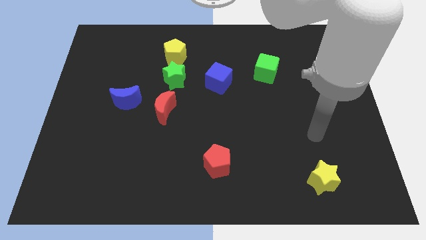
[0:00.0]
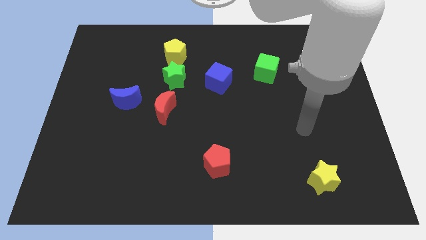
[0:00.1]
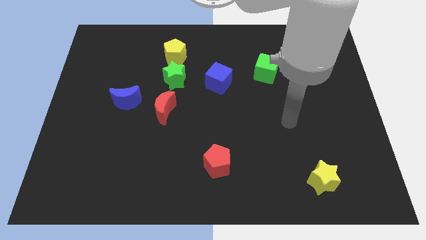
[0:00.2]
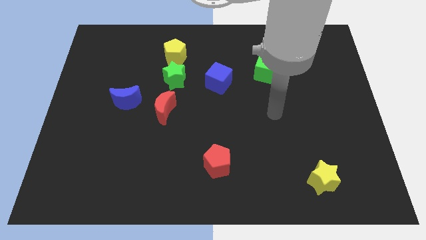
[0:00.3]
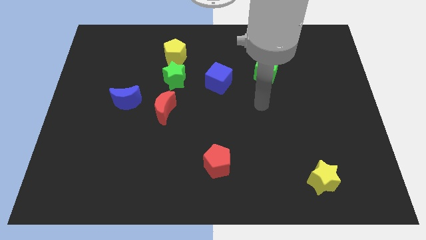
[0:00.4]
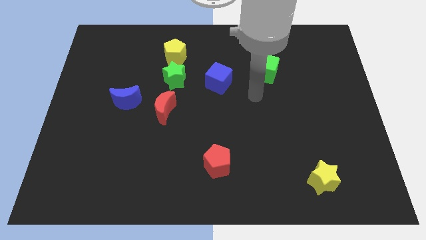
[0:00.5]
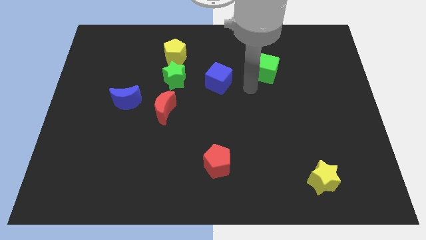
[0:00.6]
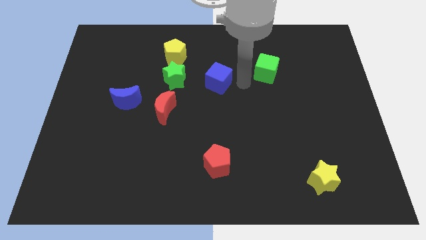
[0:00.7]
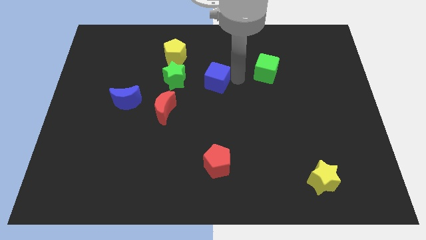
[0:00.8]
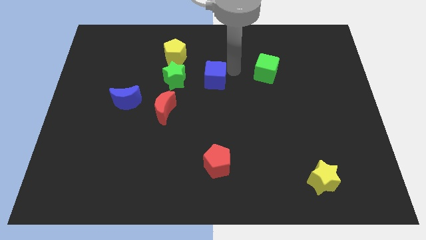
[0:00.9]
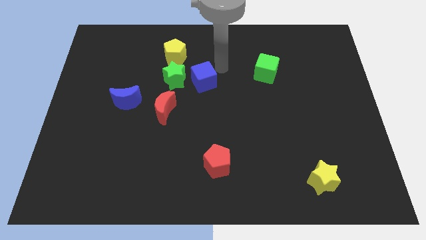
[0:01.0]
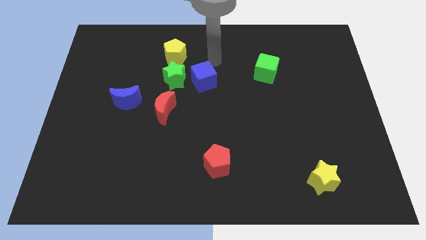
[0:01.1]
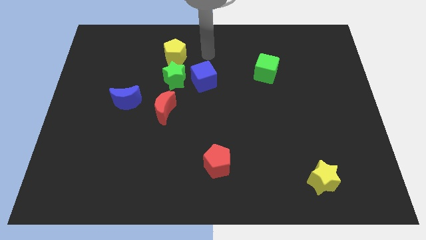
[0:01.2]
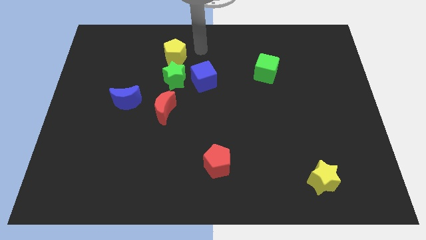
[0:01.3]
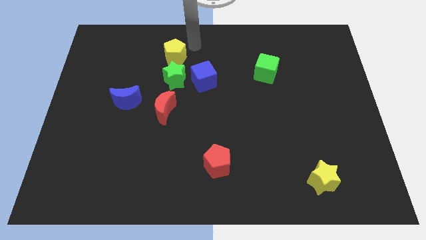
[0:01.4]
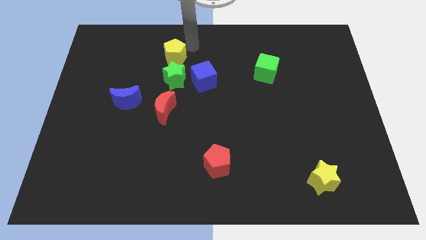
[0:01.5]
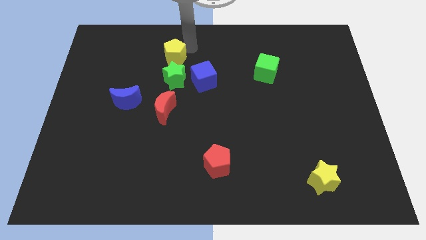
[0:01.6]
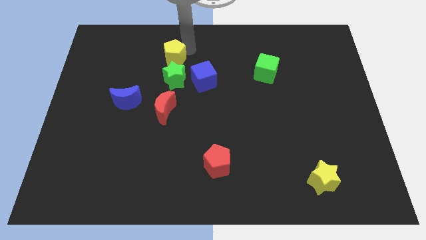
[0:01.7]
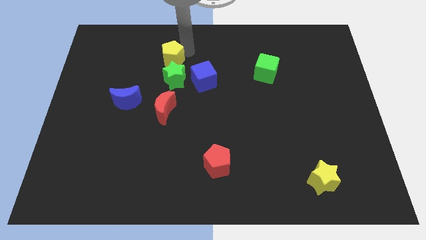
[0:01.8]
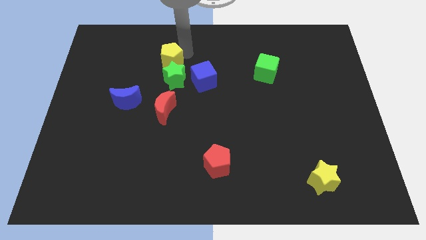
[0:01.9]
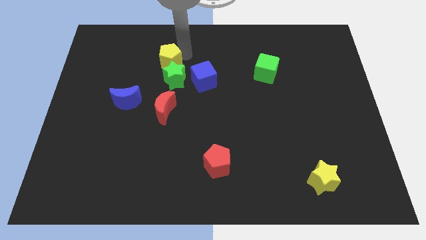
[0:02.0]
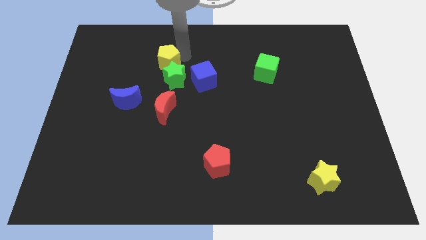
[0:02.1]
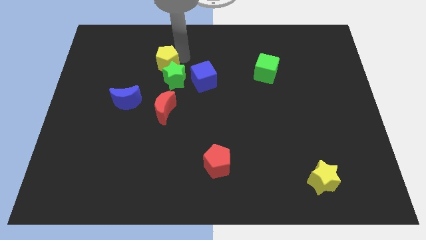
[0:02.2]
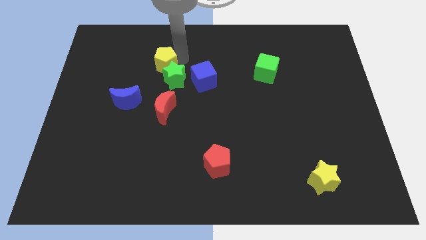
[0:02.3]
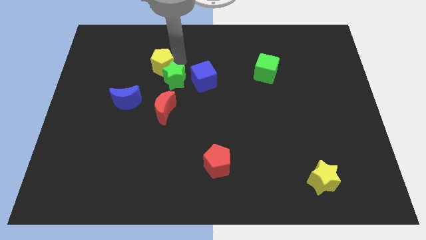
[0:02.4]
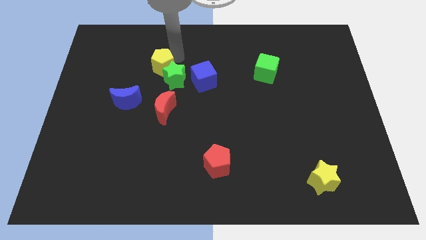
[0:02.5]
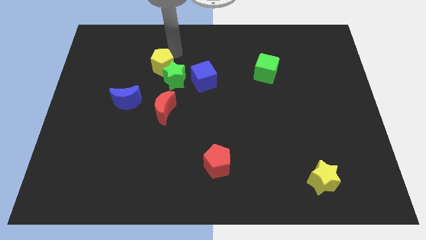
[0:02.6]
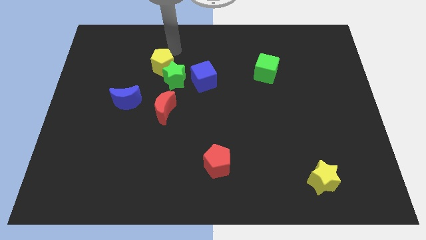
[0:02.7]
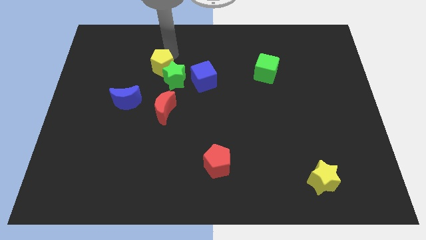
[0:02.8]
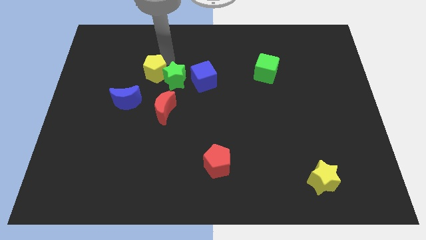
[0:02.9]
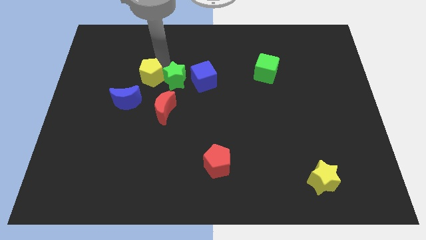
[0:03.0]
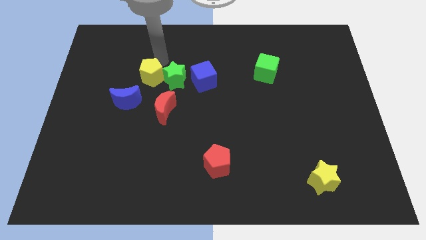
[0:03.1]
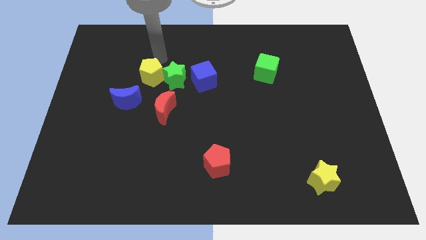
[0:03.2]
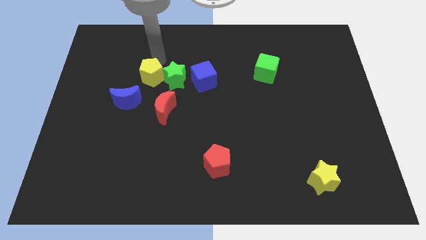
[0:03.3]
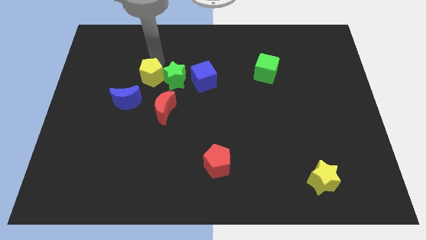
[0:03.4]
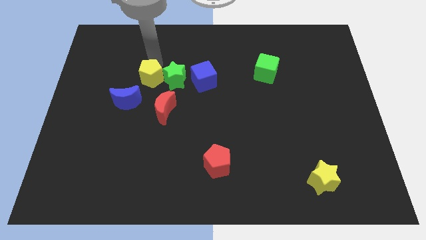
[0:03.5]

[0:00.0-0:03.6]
push the yellow pentagon to the top left side of the red moon

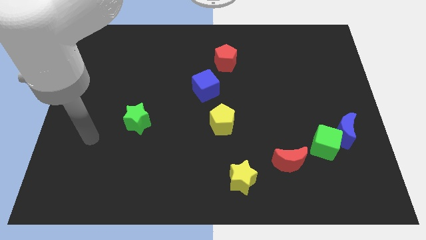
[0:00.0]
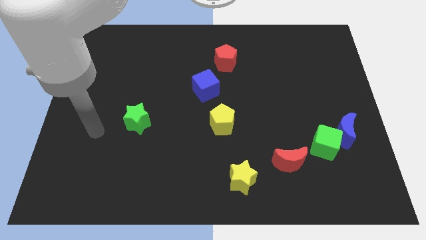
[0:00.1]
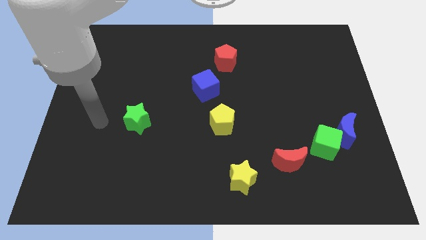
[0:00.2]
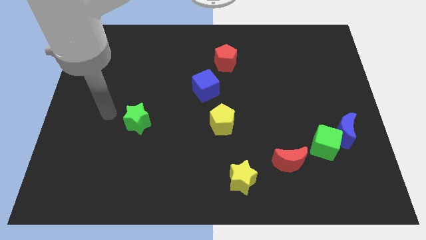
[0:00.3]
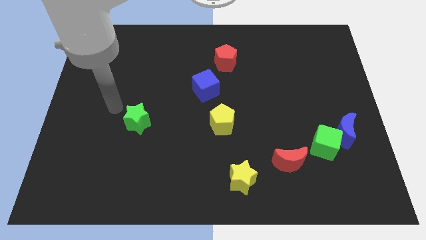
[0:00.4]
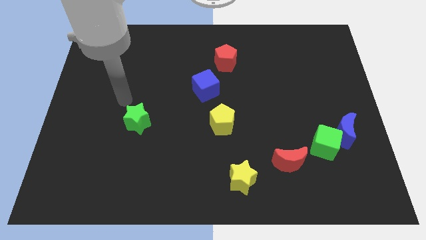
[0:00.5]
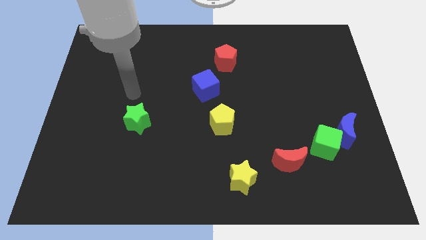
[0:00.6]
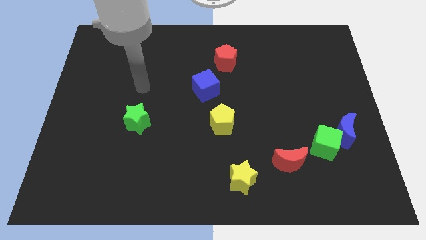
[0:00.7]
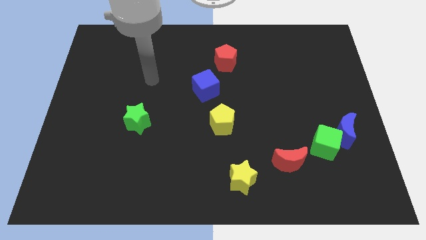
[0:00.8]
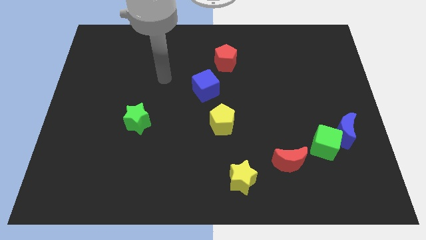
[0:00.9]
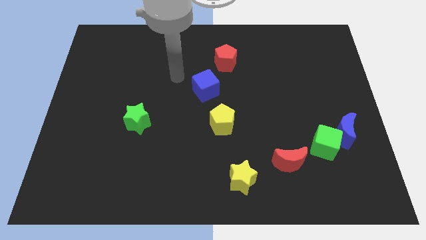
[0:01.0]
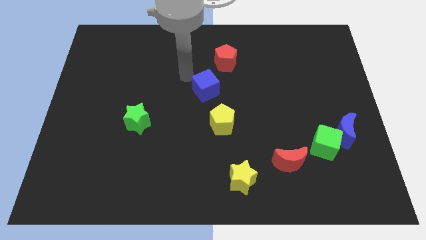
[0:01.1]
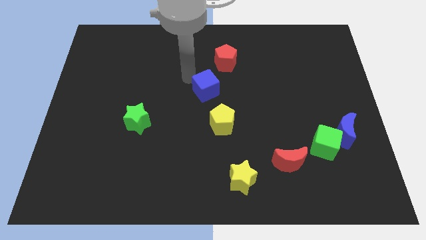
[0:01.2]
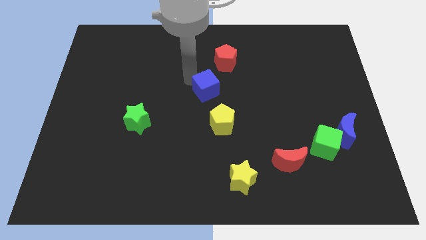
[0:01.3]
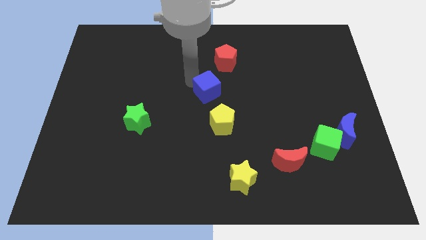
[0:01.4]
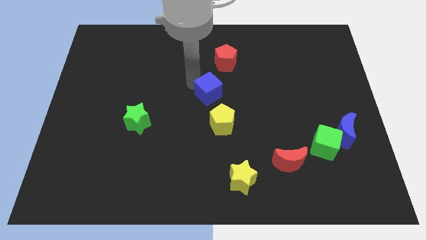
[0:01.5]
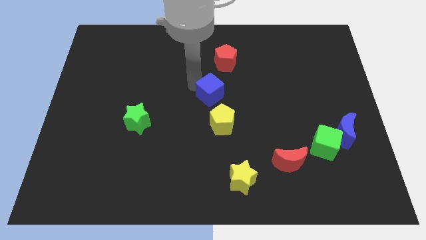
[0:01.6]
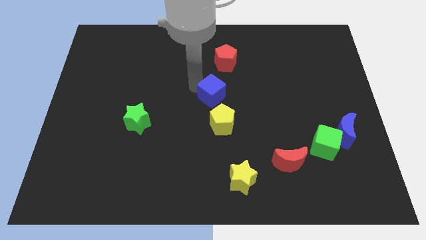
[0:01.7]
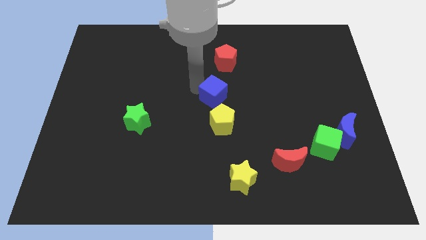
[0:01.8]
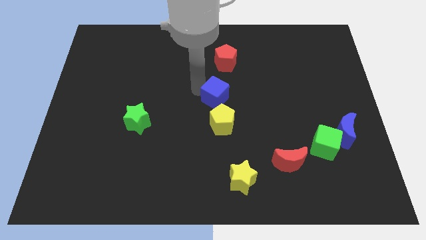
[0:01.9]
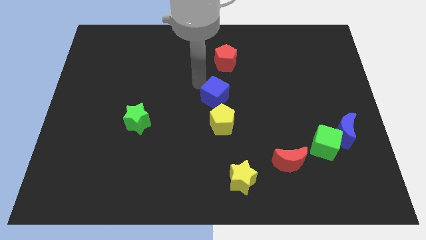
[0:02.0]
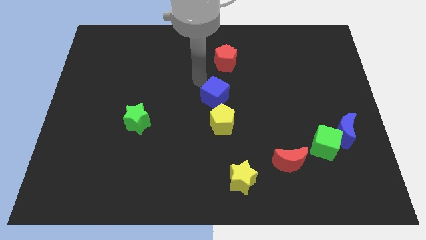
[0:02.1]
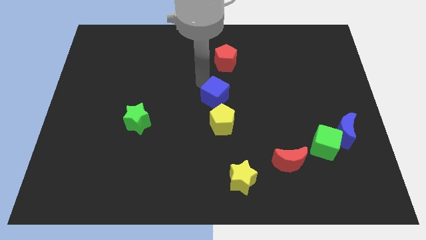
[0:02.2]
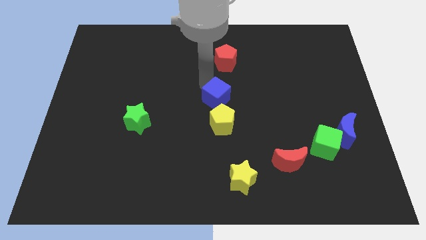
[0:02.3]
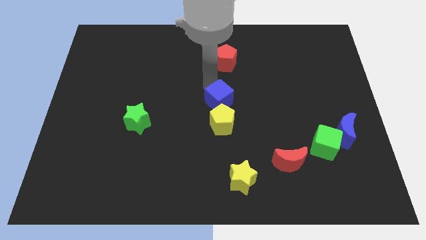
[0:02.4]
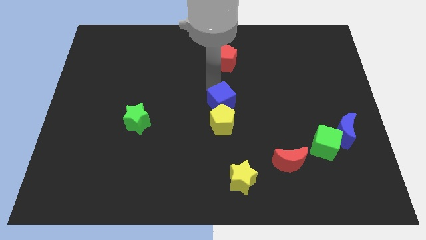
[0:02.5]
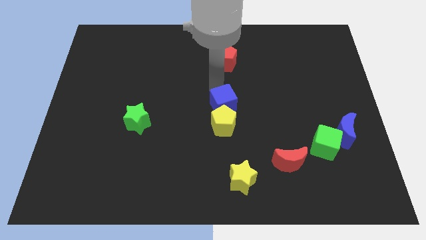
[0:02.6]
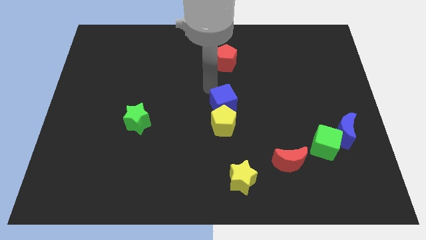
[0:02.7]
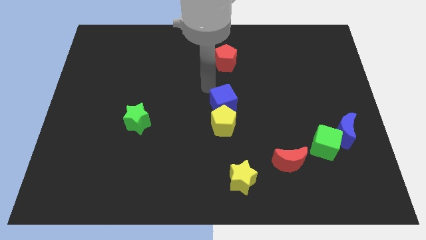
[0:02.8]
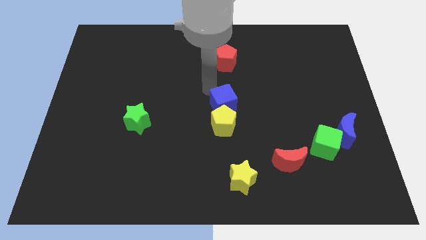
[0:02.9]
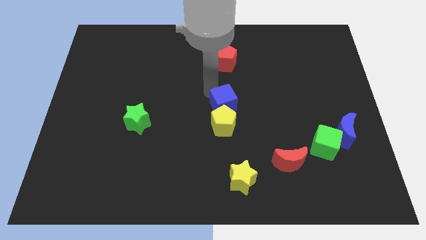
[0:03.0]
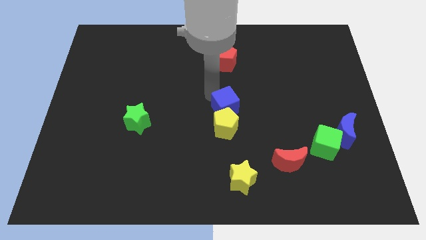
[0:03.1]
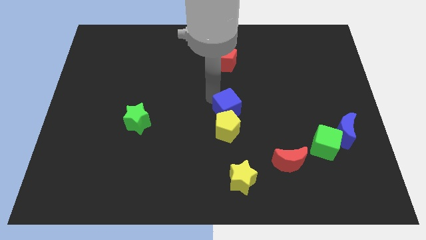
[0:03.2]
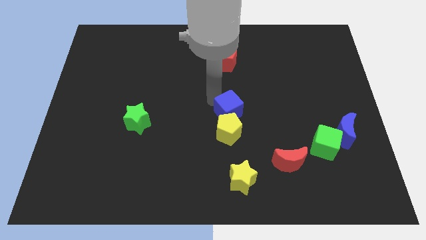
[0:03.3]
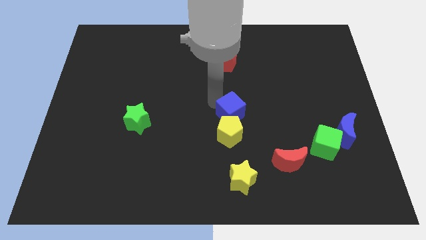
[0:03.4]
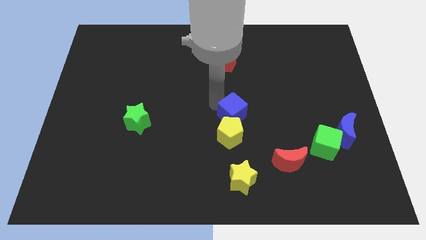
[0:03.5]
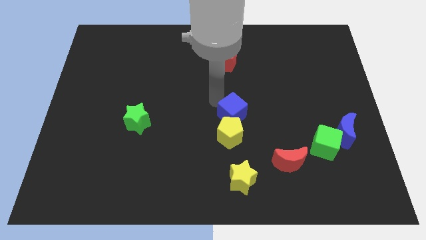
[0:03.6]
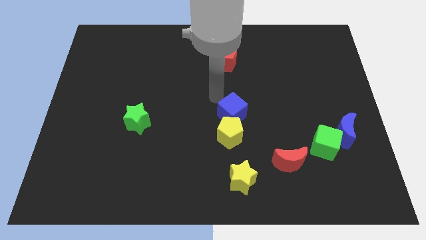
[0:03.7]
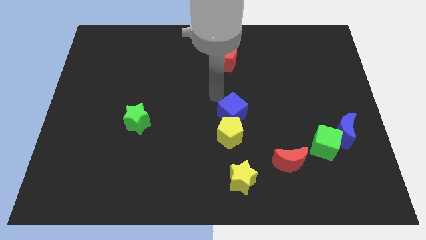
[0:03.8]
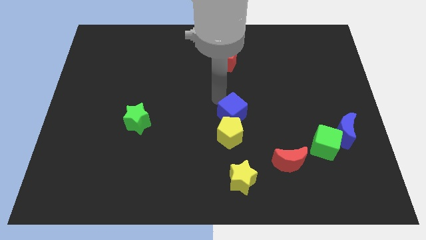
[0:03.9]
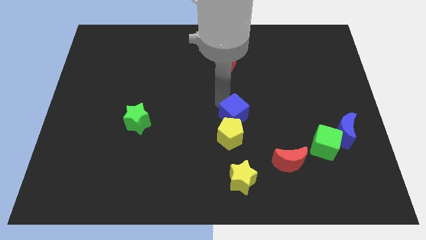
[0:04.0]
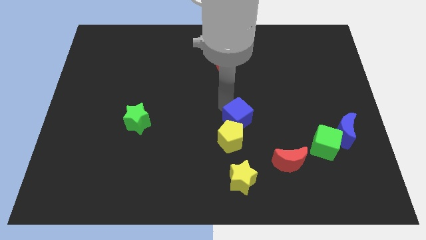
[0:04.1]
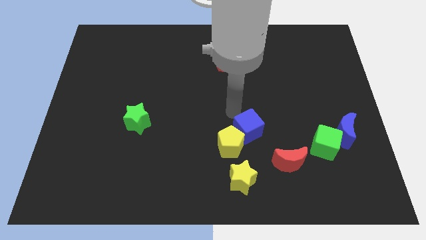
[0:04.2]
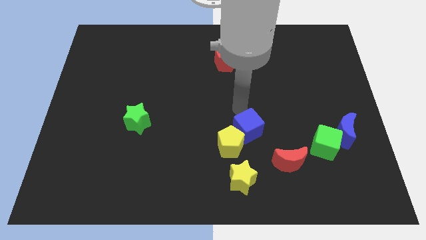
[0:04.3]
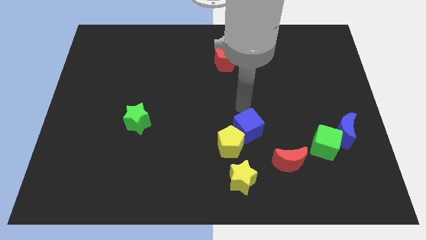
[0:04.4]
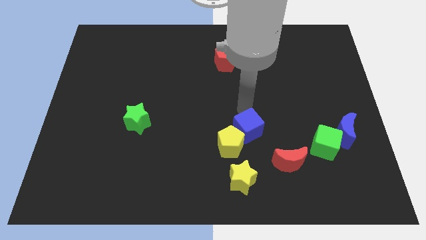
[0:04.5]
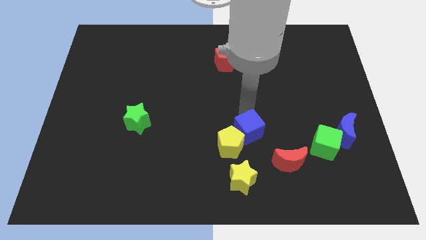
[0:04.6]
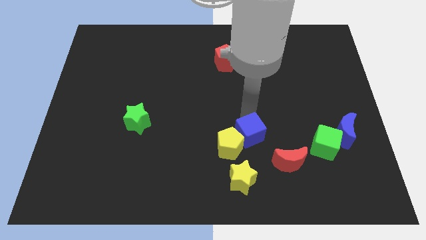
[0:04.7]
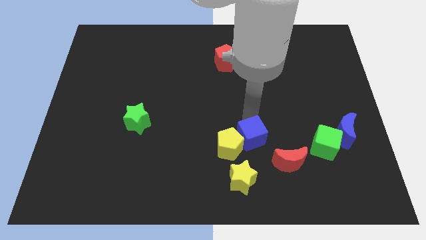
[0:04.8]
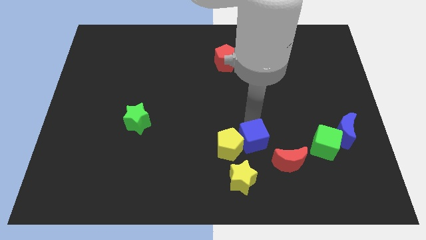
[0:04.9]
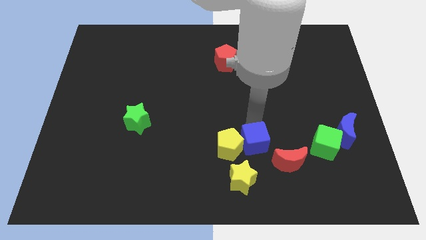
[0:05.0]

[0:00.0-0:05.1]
put the blue cube to the bottom right of the yellow pentagon
